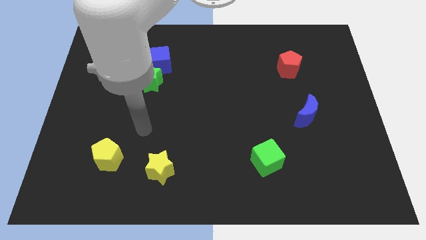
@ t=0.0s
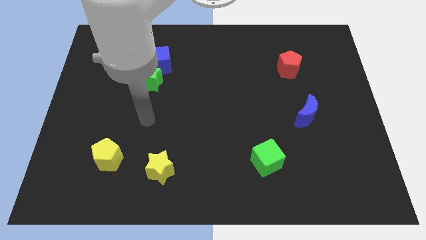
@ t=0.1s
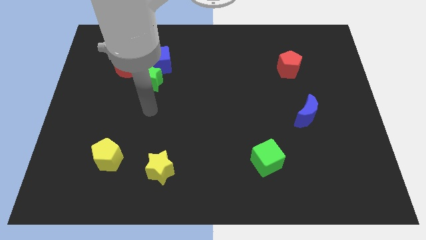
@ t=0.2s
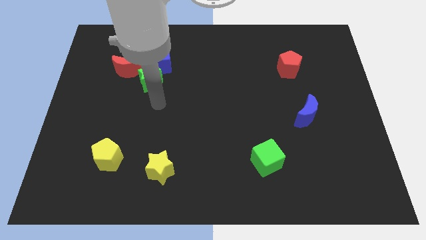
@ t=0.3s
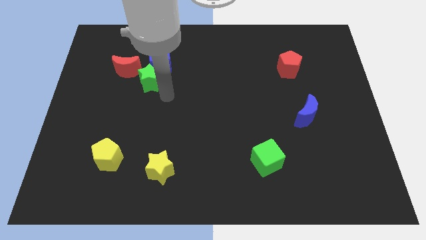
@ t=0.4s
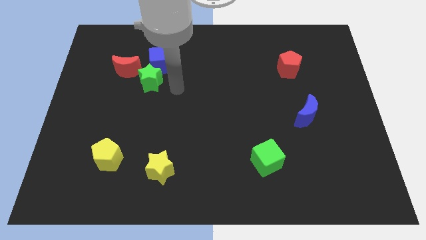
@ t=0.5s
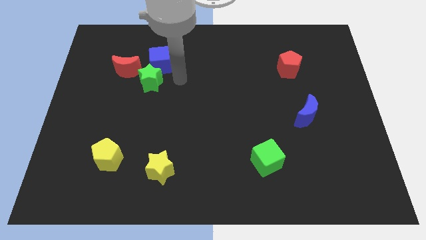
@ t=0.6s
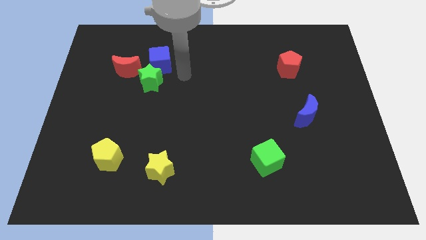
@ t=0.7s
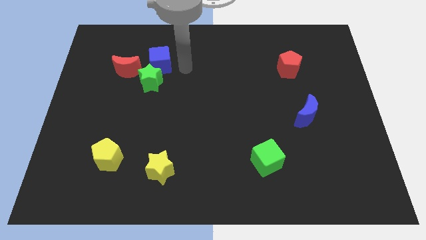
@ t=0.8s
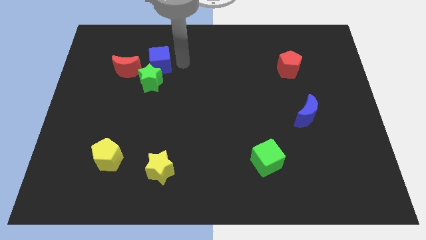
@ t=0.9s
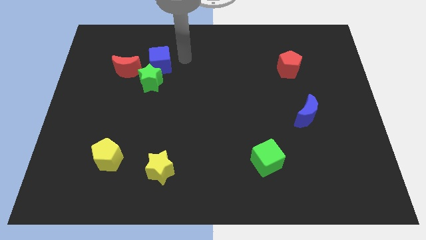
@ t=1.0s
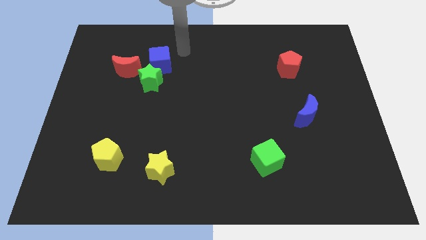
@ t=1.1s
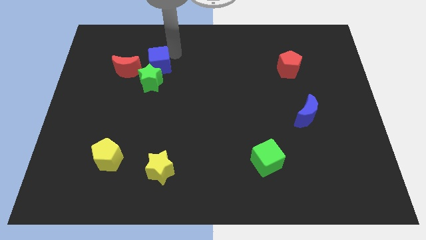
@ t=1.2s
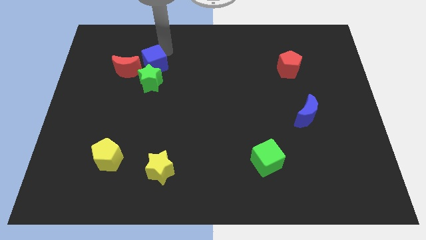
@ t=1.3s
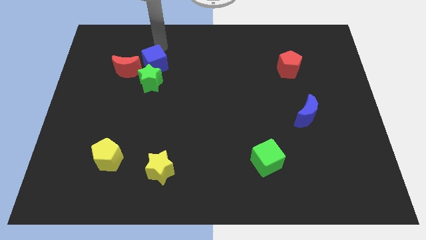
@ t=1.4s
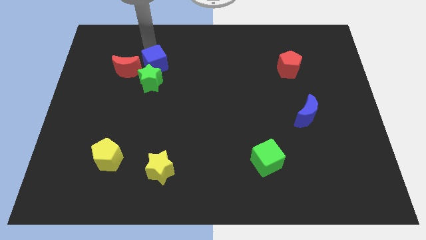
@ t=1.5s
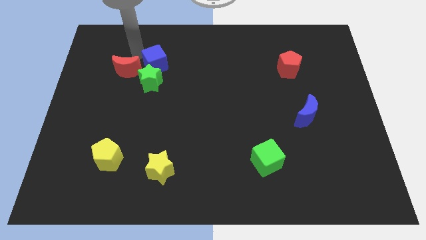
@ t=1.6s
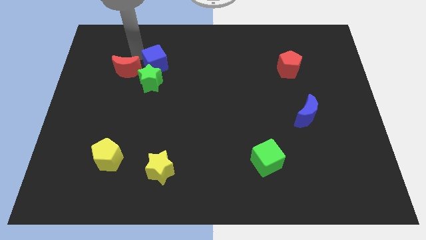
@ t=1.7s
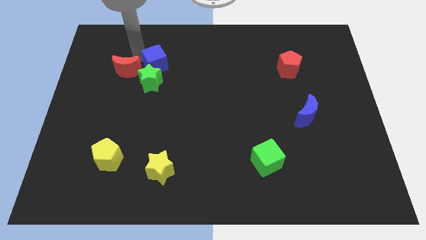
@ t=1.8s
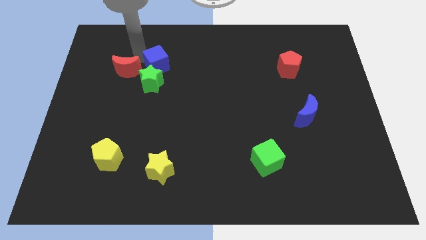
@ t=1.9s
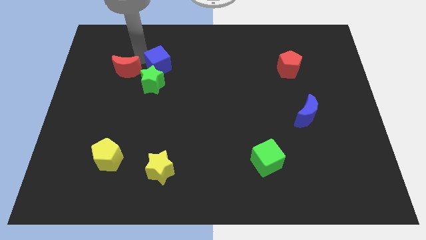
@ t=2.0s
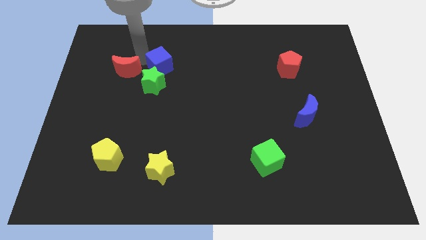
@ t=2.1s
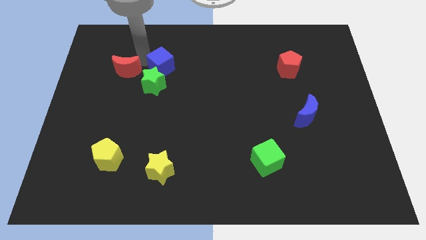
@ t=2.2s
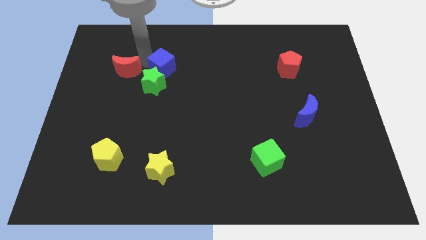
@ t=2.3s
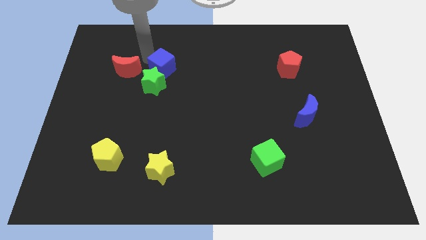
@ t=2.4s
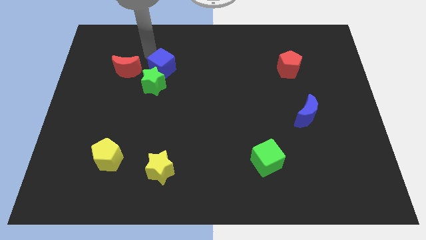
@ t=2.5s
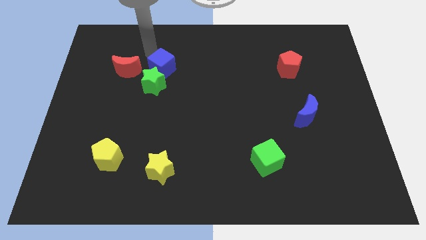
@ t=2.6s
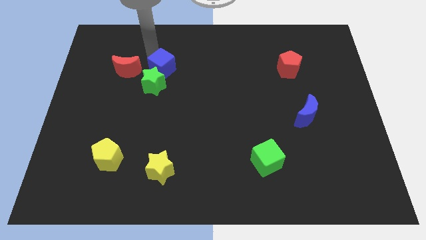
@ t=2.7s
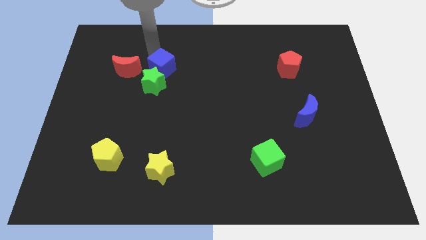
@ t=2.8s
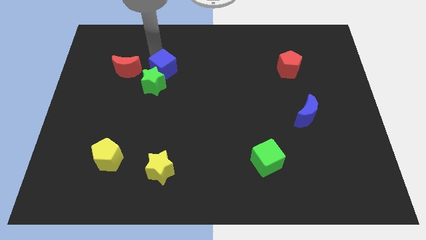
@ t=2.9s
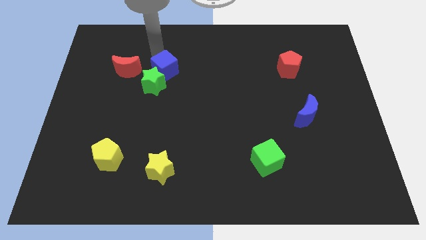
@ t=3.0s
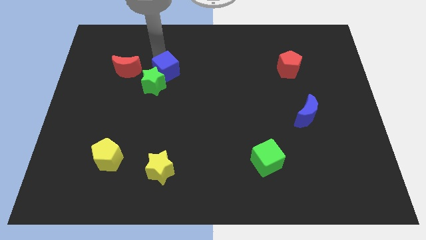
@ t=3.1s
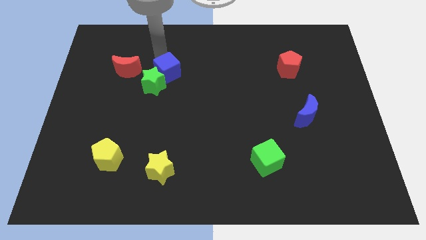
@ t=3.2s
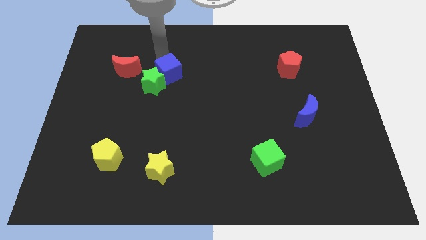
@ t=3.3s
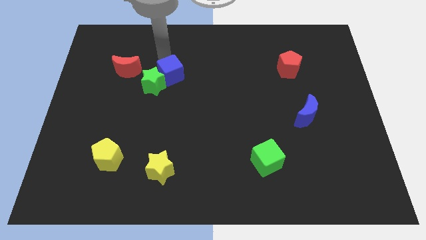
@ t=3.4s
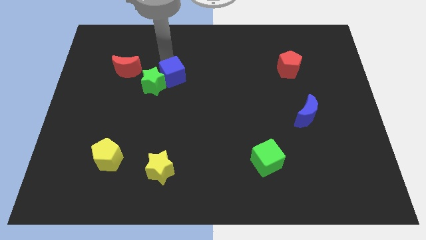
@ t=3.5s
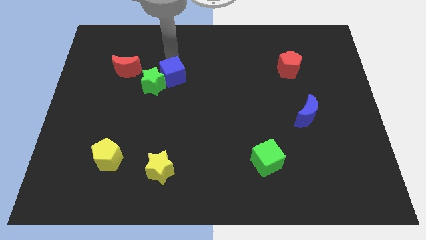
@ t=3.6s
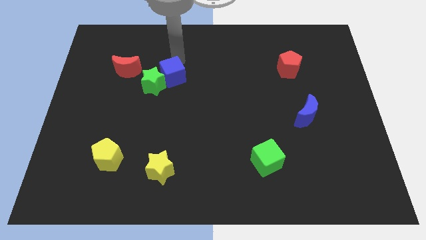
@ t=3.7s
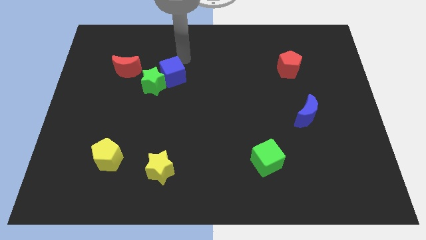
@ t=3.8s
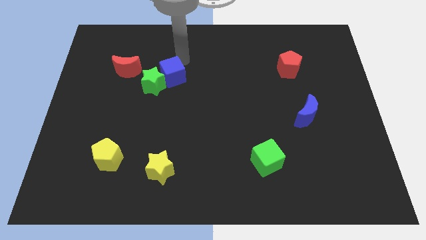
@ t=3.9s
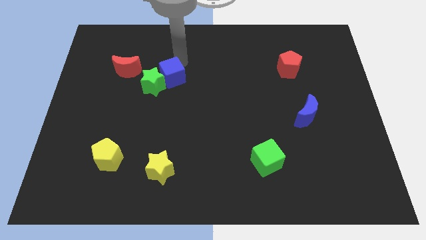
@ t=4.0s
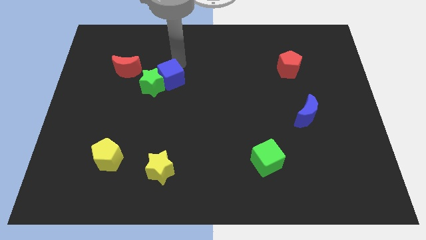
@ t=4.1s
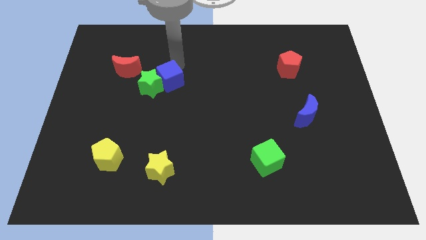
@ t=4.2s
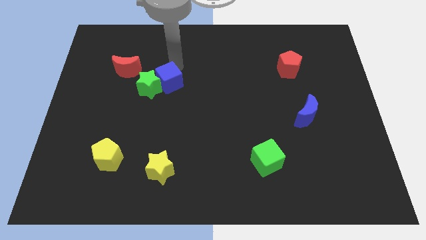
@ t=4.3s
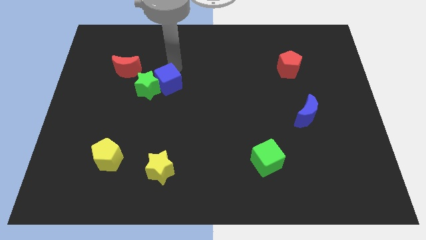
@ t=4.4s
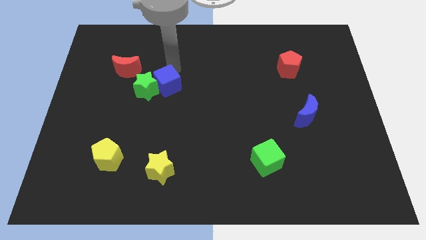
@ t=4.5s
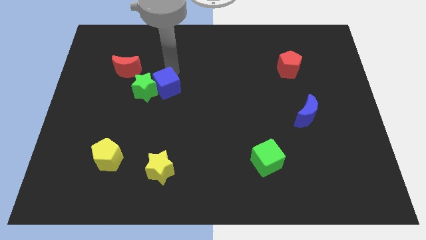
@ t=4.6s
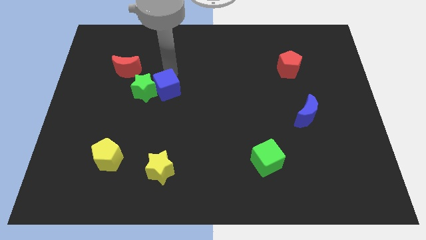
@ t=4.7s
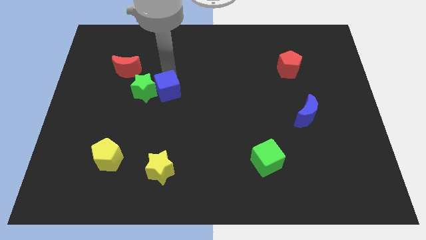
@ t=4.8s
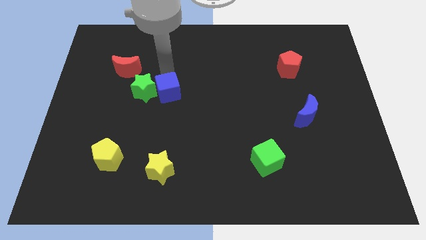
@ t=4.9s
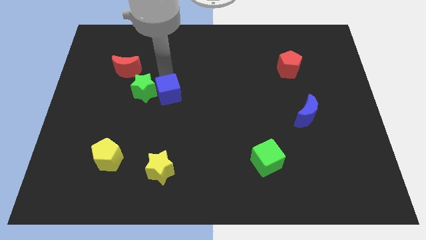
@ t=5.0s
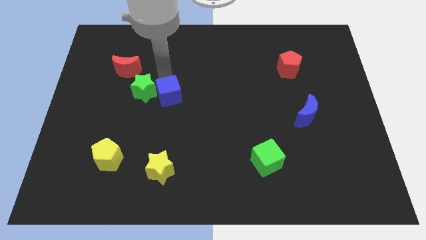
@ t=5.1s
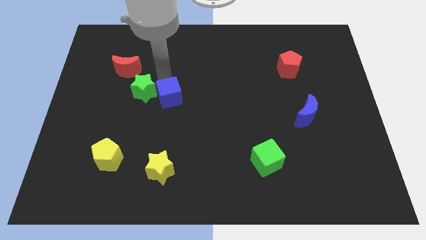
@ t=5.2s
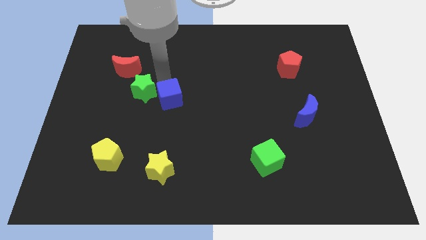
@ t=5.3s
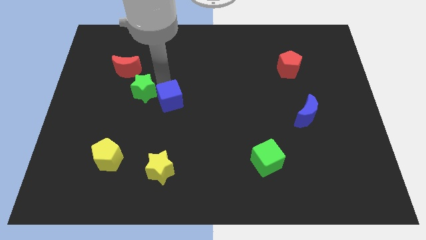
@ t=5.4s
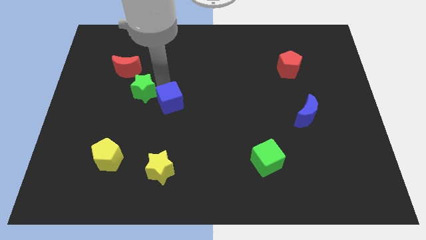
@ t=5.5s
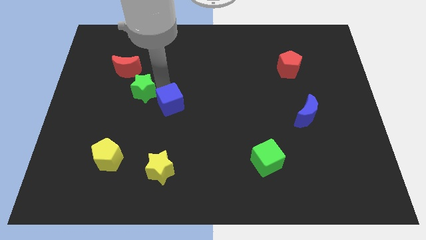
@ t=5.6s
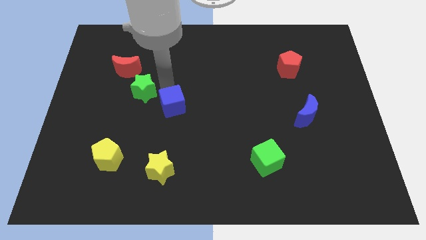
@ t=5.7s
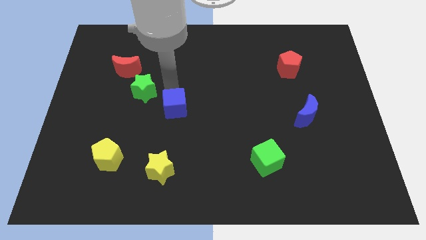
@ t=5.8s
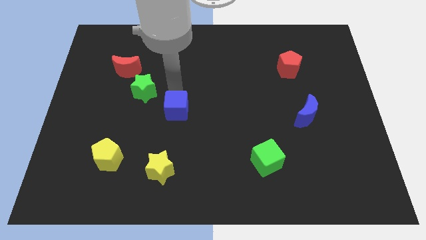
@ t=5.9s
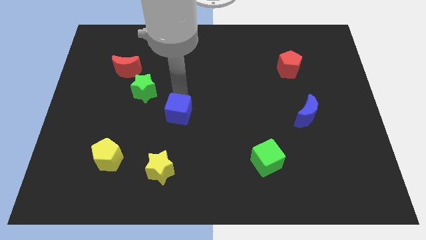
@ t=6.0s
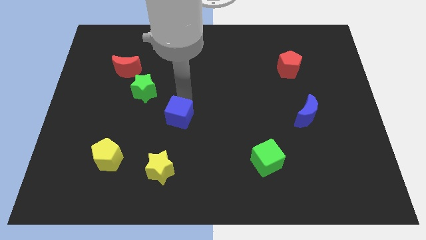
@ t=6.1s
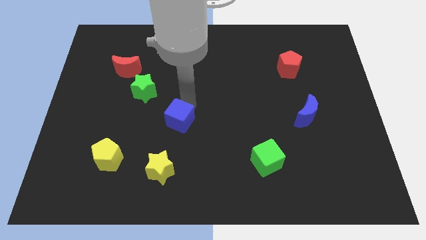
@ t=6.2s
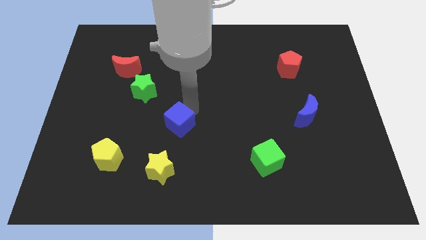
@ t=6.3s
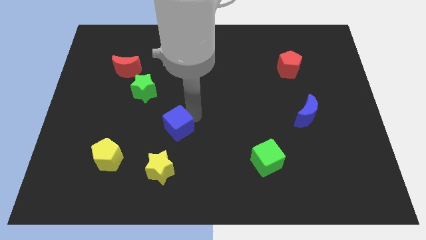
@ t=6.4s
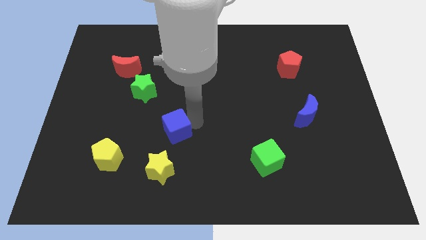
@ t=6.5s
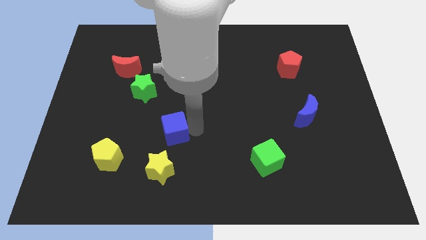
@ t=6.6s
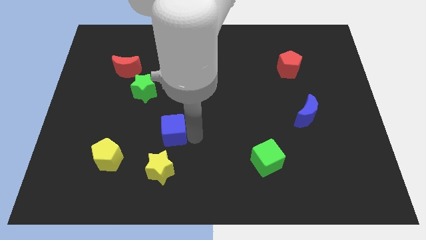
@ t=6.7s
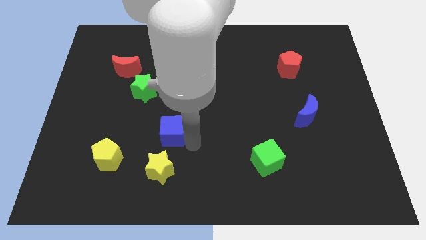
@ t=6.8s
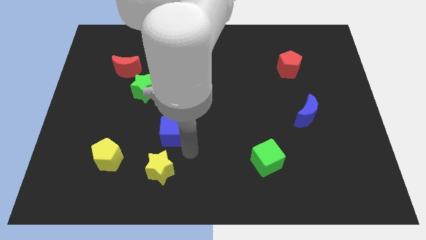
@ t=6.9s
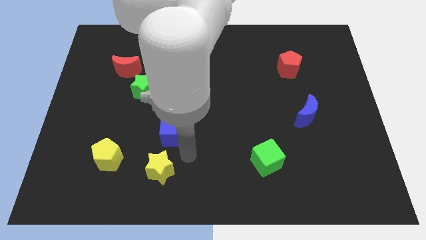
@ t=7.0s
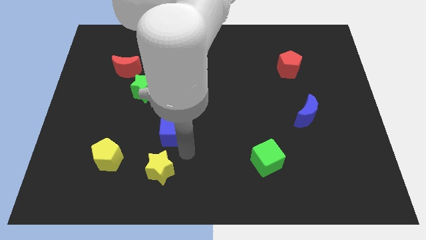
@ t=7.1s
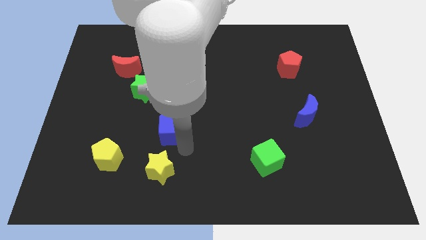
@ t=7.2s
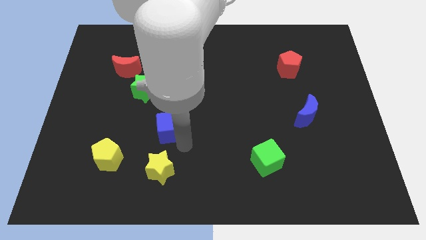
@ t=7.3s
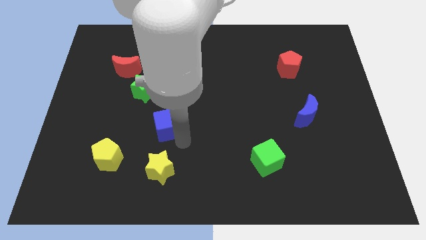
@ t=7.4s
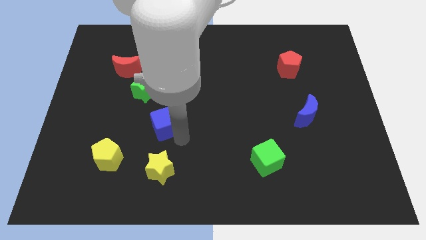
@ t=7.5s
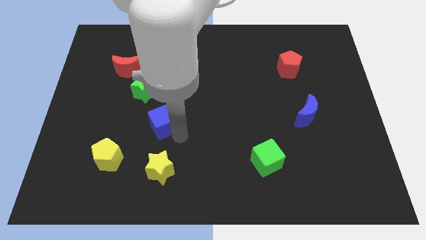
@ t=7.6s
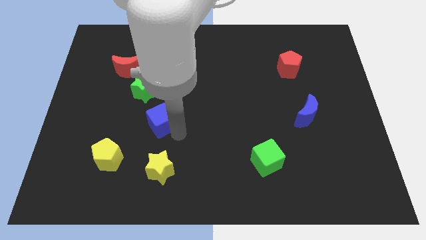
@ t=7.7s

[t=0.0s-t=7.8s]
put the blue cube to the bottom side of the green star
